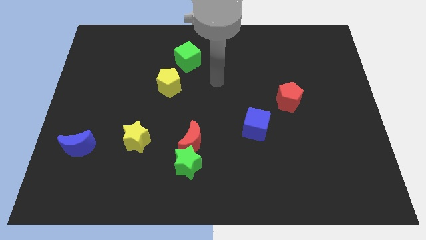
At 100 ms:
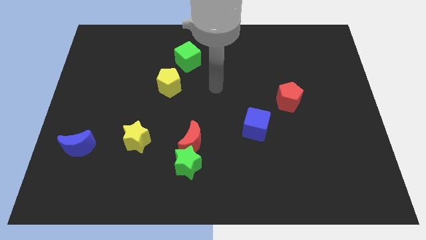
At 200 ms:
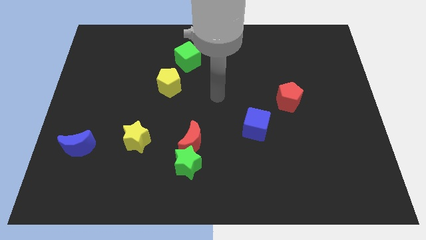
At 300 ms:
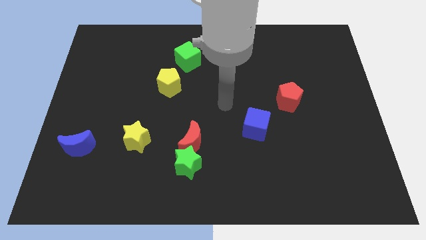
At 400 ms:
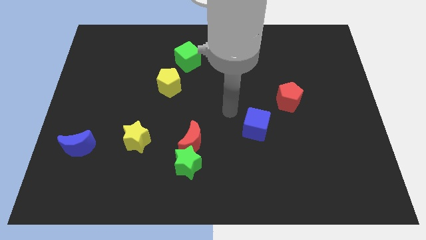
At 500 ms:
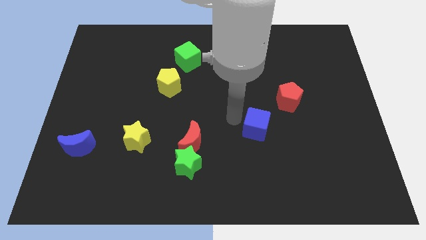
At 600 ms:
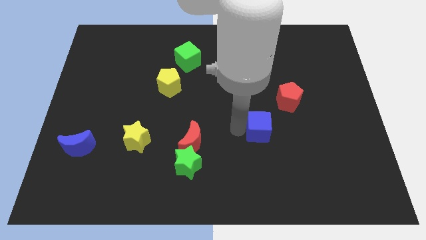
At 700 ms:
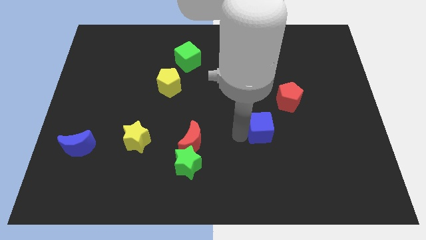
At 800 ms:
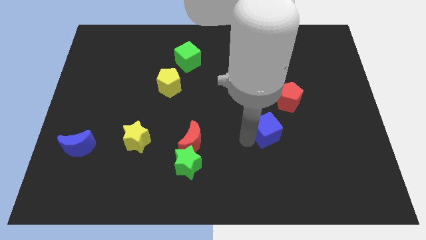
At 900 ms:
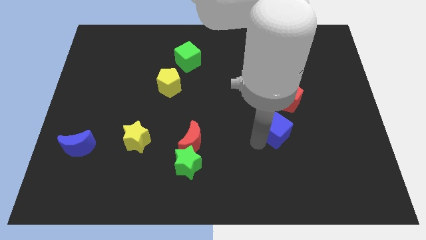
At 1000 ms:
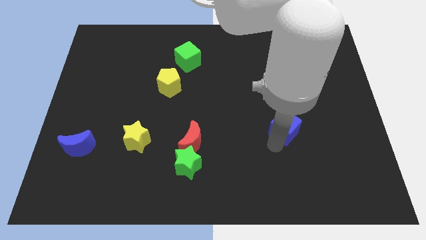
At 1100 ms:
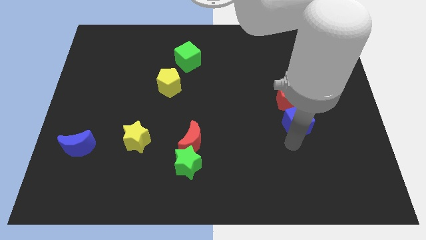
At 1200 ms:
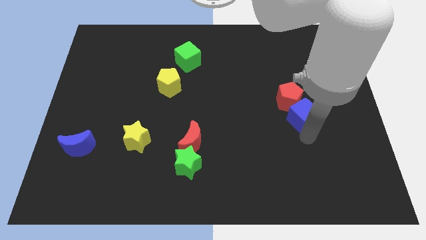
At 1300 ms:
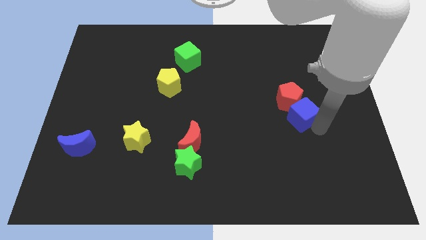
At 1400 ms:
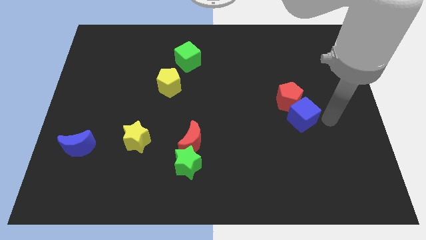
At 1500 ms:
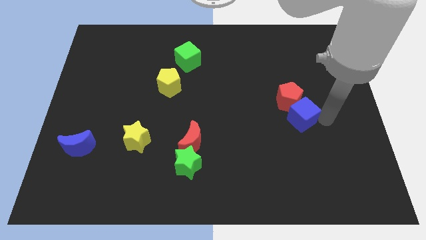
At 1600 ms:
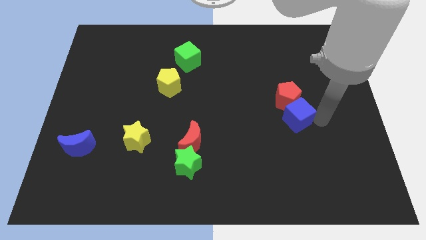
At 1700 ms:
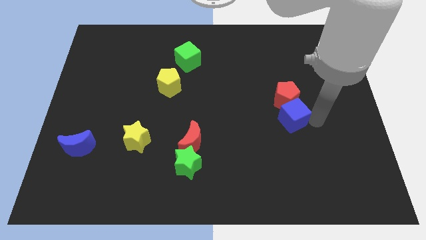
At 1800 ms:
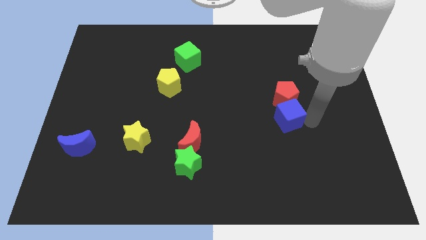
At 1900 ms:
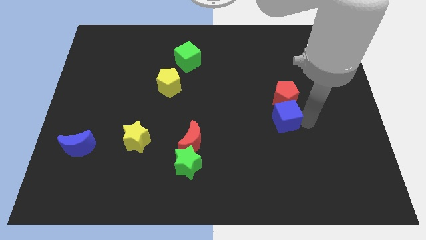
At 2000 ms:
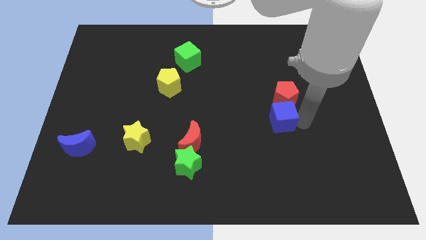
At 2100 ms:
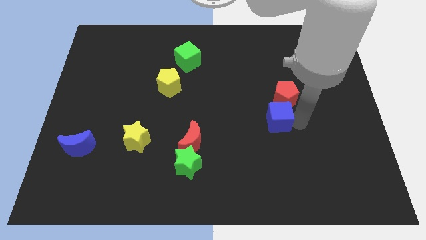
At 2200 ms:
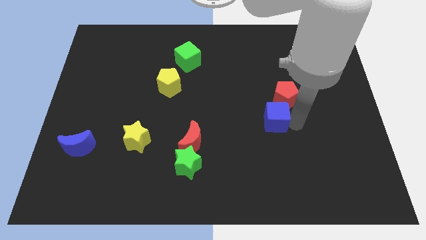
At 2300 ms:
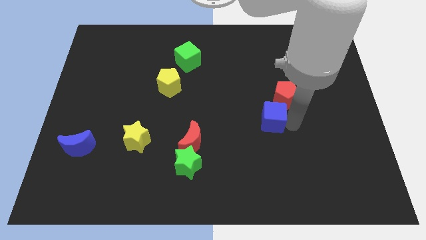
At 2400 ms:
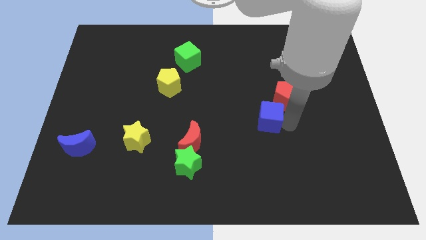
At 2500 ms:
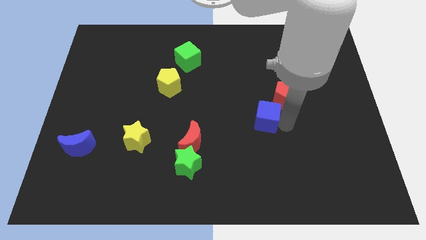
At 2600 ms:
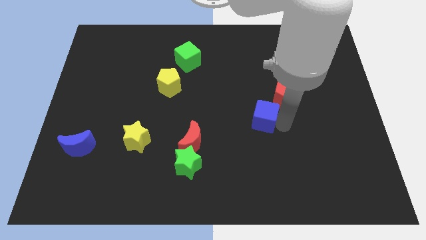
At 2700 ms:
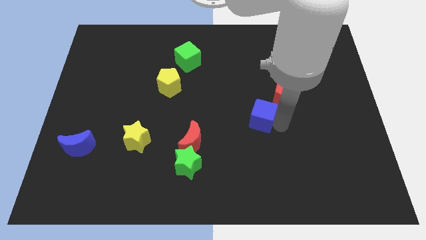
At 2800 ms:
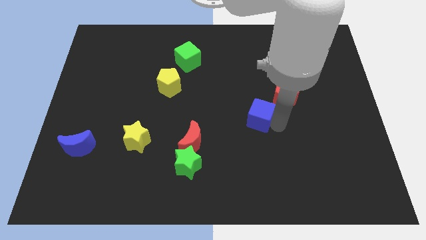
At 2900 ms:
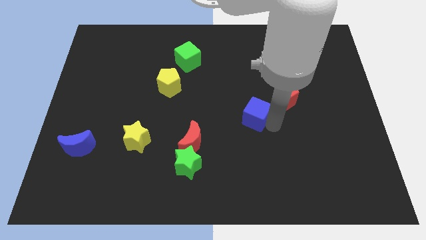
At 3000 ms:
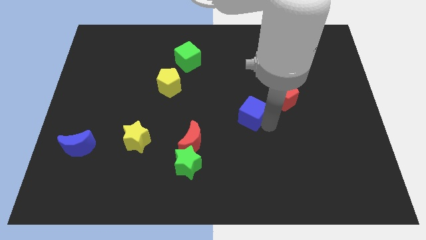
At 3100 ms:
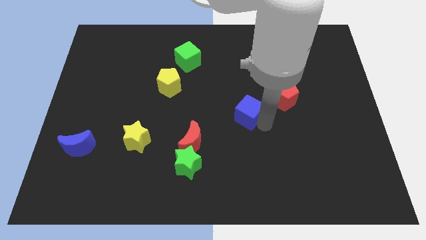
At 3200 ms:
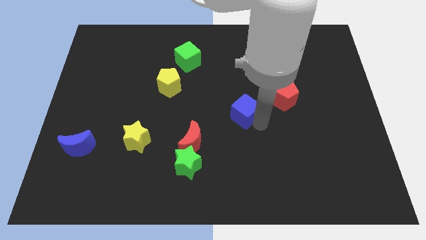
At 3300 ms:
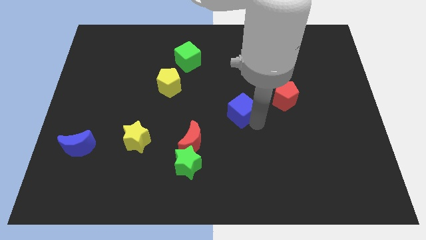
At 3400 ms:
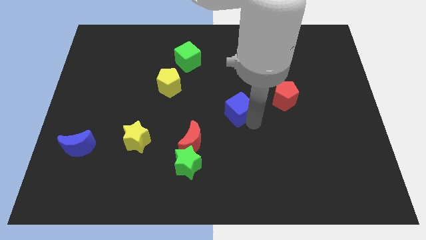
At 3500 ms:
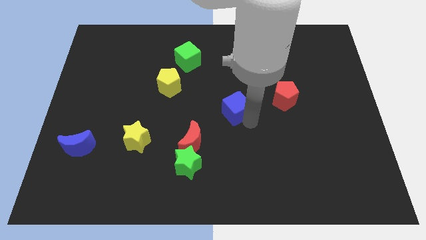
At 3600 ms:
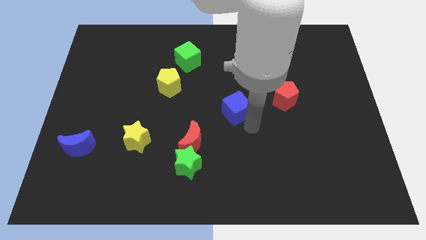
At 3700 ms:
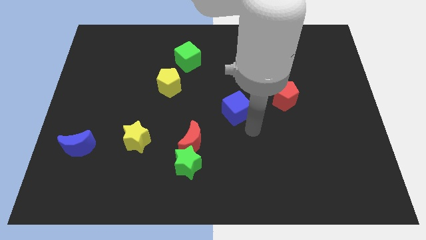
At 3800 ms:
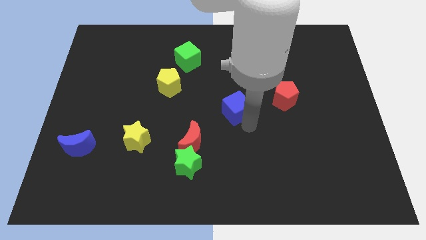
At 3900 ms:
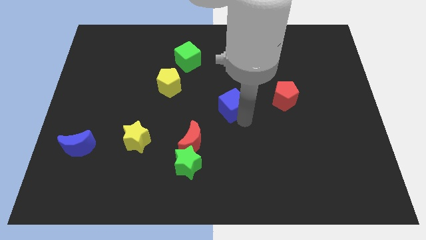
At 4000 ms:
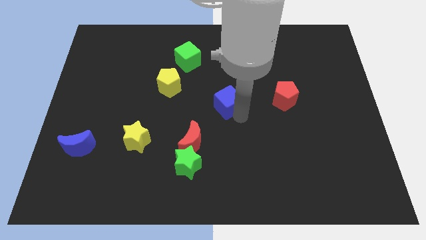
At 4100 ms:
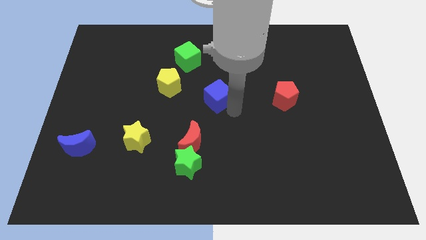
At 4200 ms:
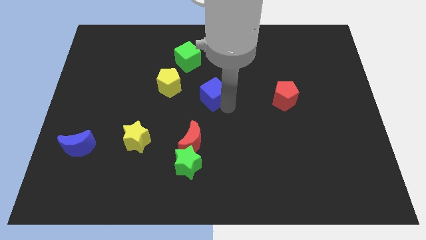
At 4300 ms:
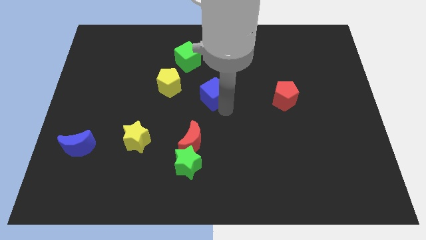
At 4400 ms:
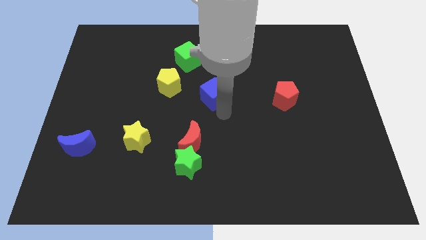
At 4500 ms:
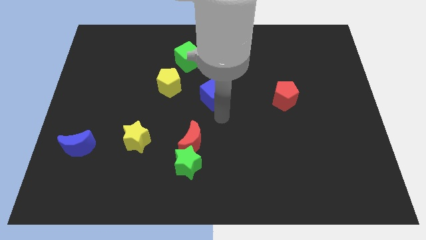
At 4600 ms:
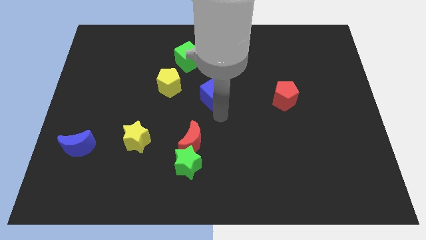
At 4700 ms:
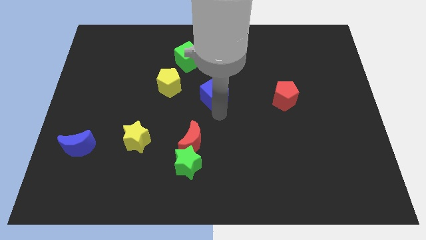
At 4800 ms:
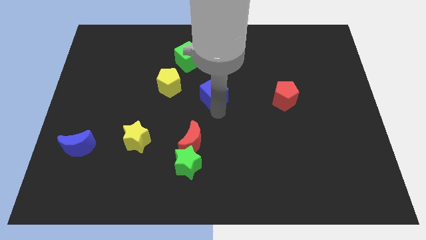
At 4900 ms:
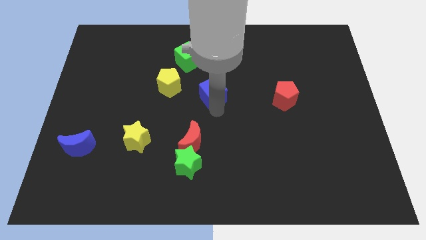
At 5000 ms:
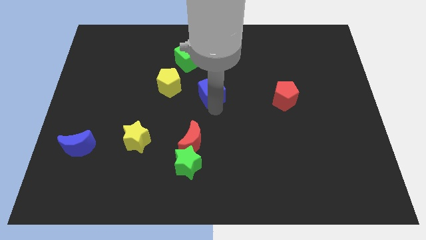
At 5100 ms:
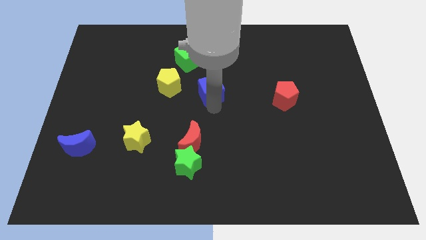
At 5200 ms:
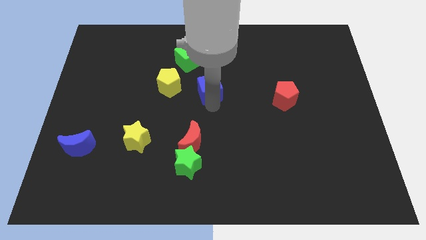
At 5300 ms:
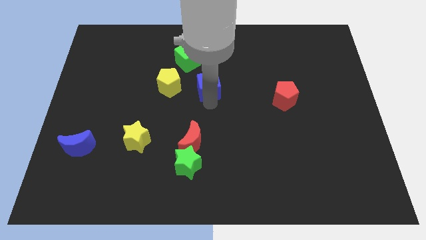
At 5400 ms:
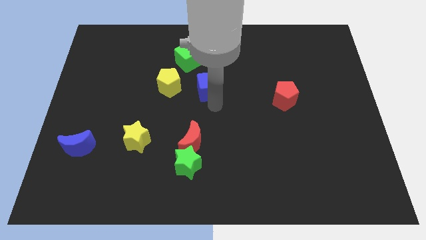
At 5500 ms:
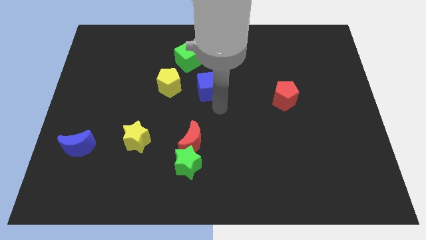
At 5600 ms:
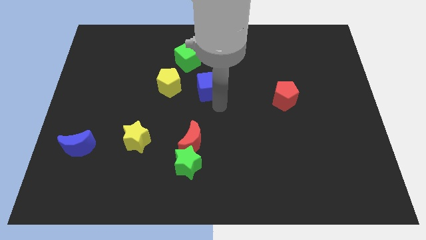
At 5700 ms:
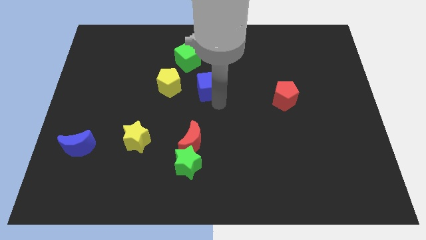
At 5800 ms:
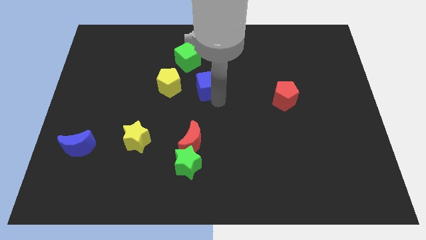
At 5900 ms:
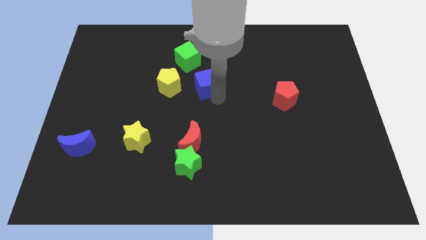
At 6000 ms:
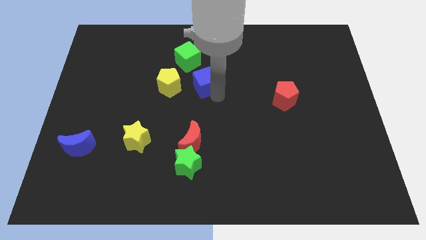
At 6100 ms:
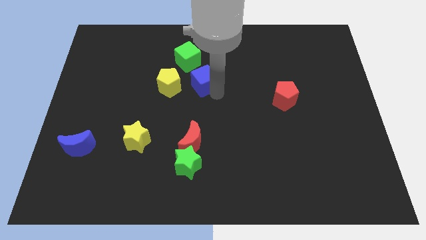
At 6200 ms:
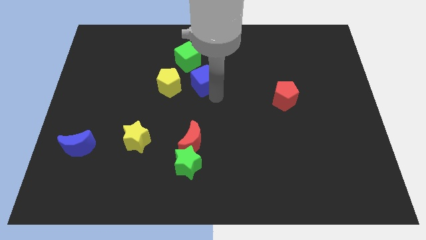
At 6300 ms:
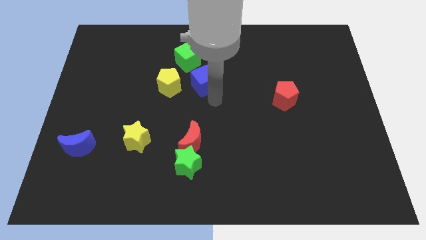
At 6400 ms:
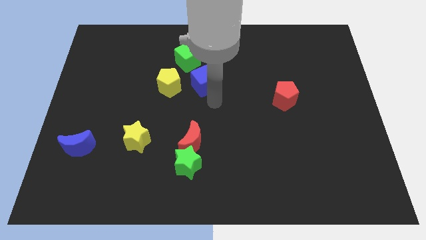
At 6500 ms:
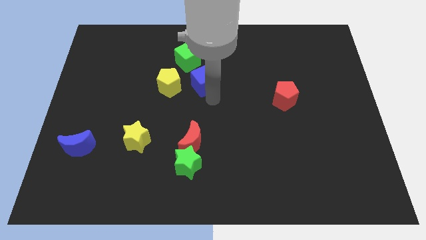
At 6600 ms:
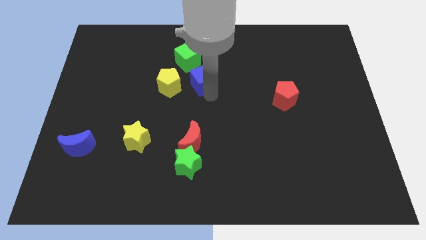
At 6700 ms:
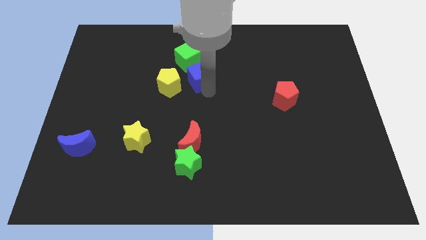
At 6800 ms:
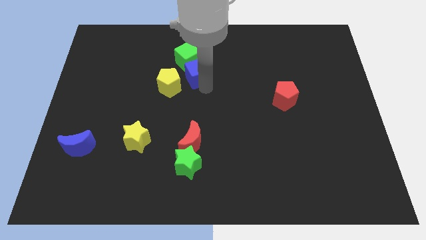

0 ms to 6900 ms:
put the blue cube next to the green cube
